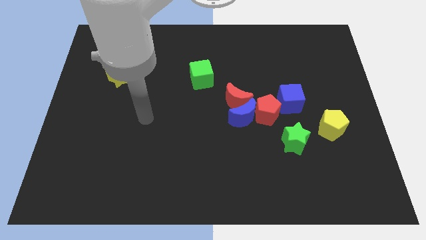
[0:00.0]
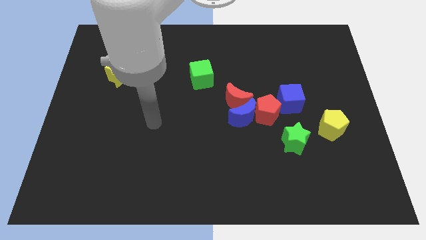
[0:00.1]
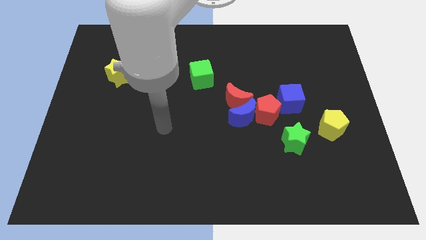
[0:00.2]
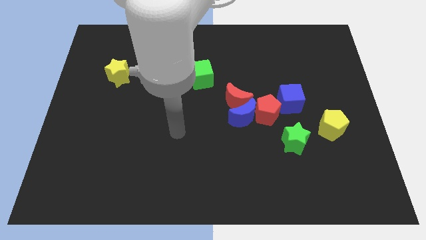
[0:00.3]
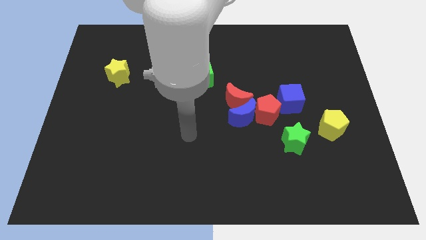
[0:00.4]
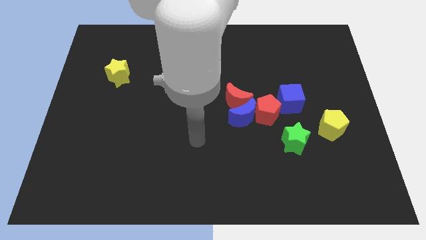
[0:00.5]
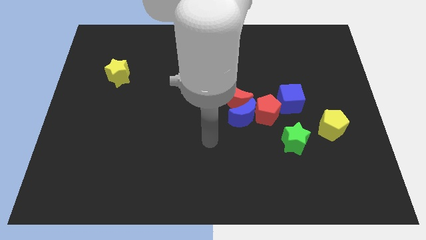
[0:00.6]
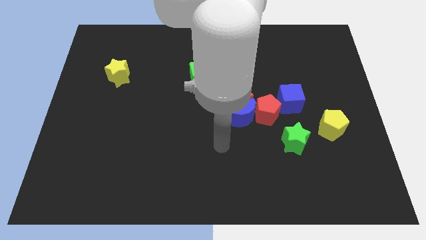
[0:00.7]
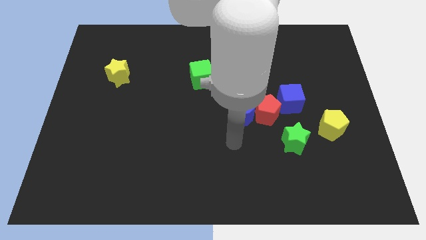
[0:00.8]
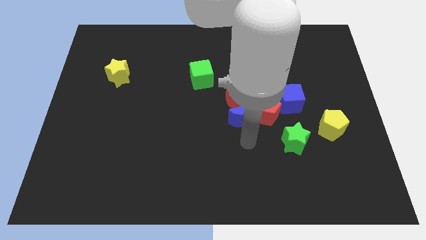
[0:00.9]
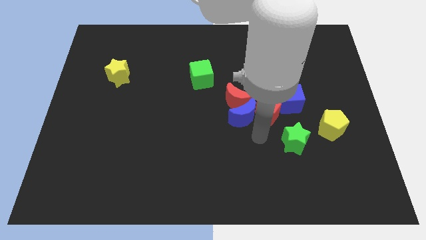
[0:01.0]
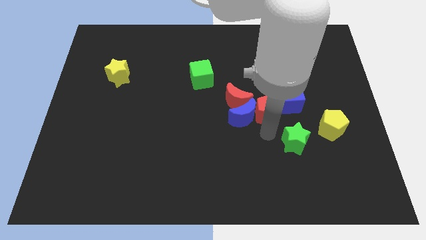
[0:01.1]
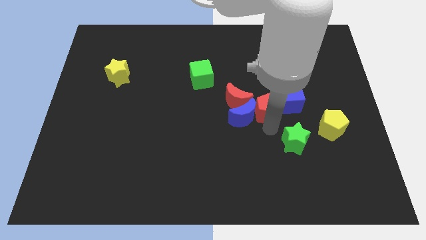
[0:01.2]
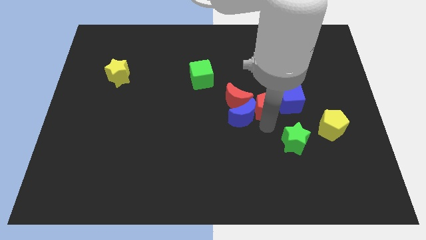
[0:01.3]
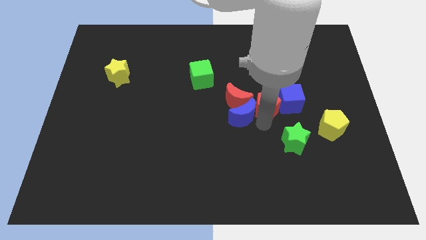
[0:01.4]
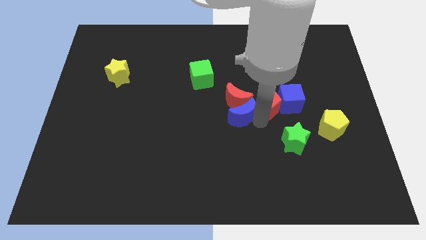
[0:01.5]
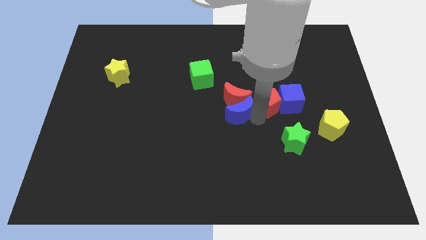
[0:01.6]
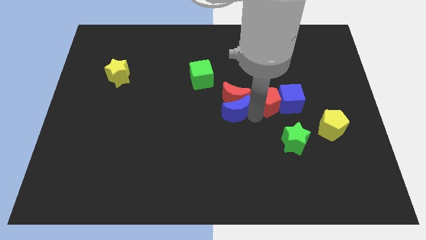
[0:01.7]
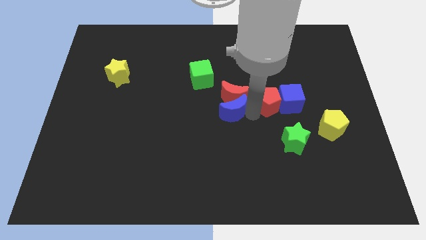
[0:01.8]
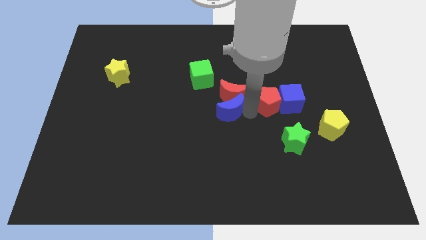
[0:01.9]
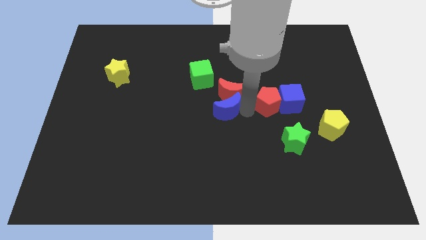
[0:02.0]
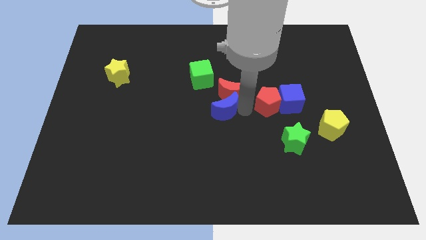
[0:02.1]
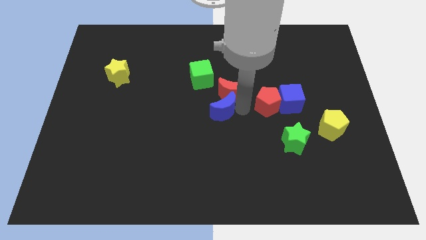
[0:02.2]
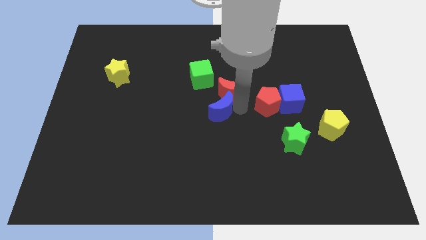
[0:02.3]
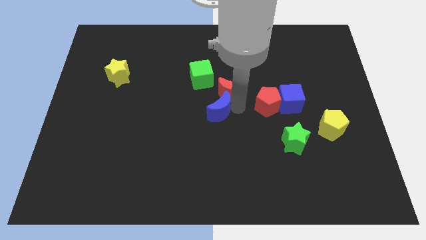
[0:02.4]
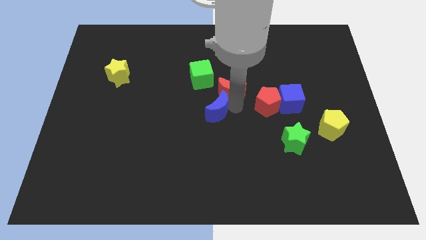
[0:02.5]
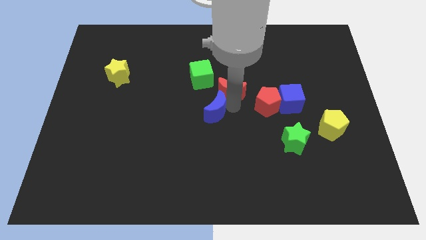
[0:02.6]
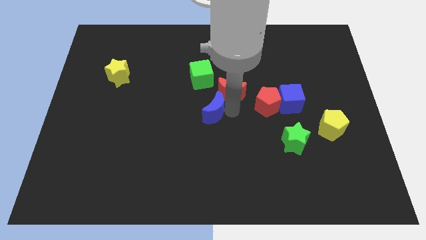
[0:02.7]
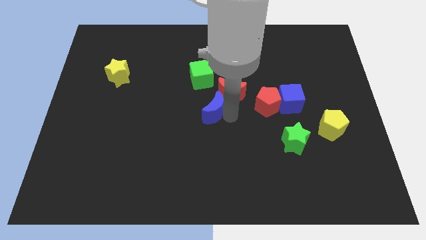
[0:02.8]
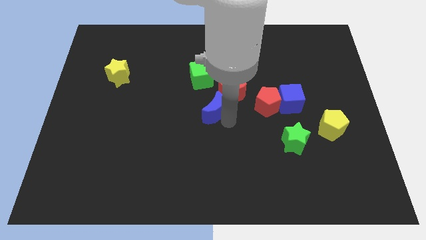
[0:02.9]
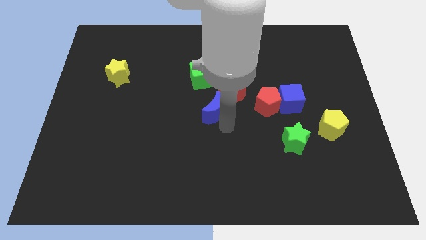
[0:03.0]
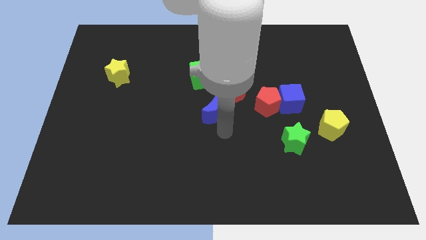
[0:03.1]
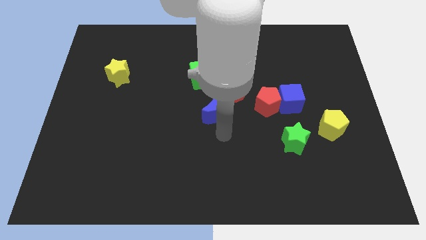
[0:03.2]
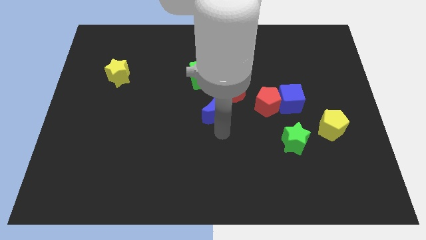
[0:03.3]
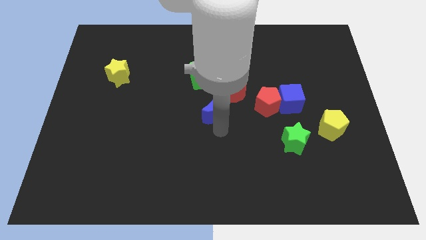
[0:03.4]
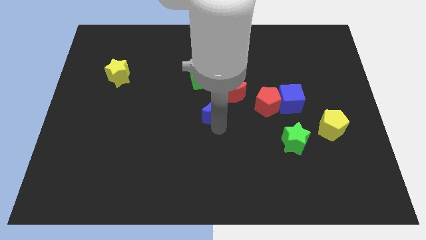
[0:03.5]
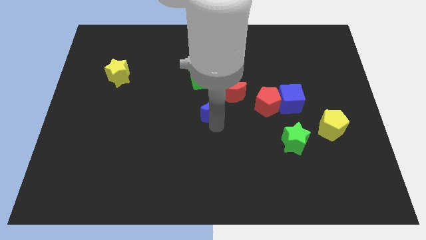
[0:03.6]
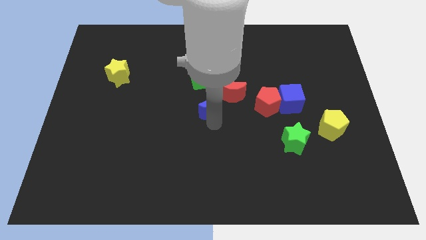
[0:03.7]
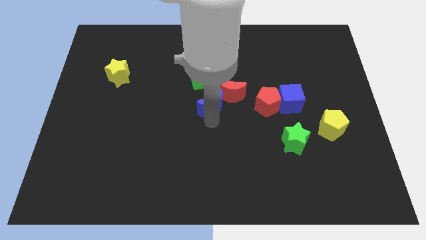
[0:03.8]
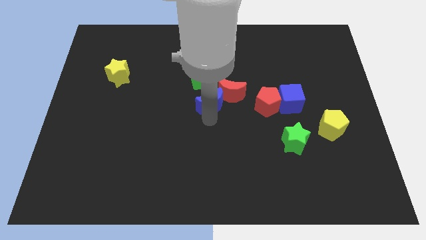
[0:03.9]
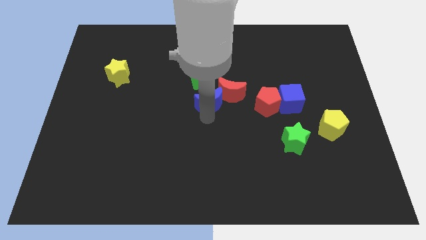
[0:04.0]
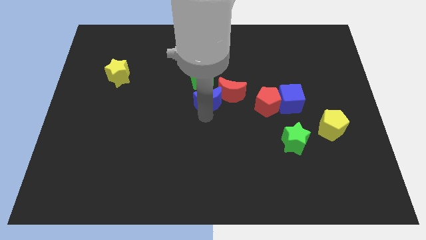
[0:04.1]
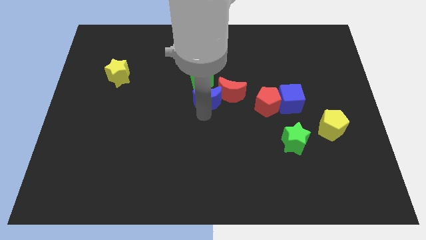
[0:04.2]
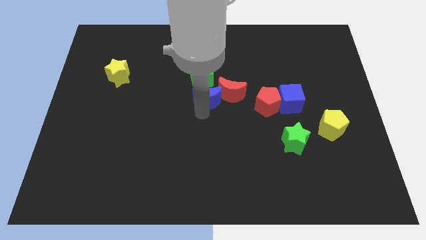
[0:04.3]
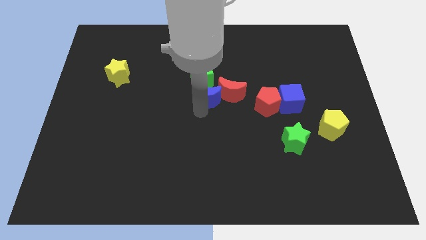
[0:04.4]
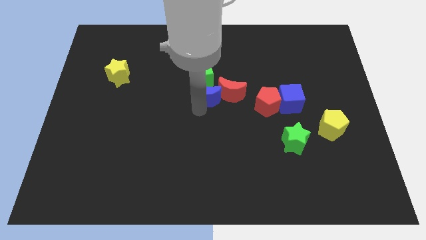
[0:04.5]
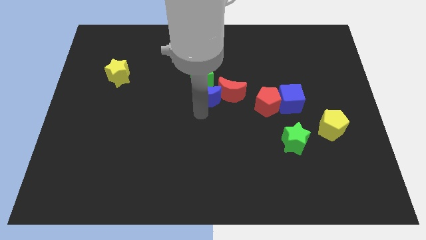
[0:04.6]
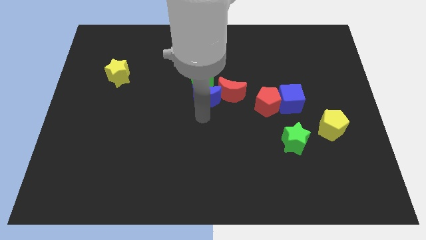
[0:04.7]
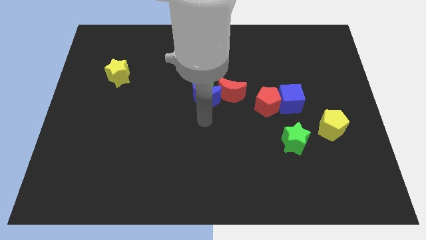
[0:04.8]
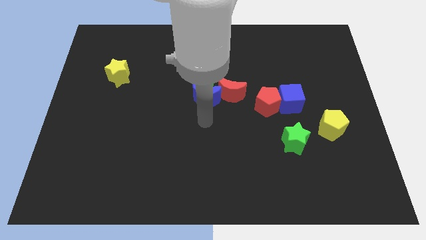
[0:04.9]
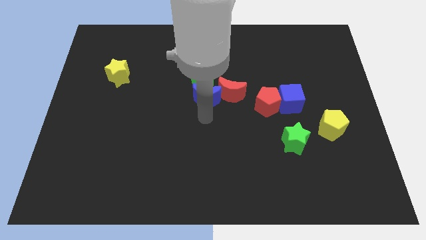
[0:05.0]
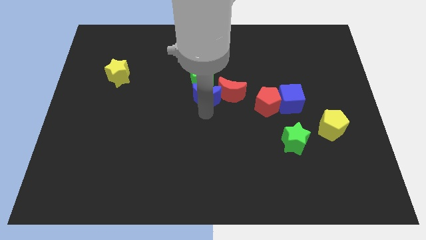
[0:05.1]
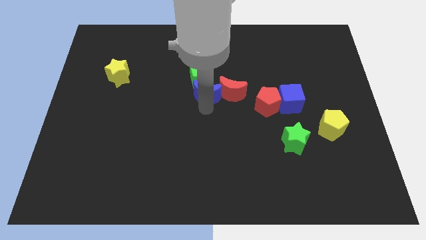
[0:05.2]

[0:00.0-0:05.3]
push the blue moon next to the green cube

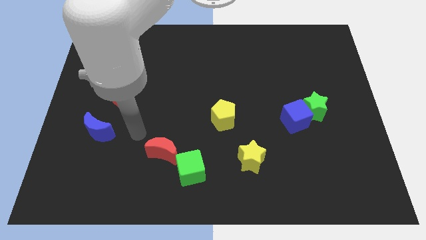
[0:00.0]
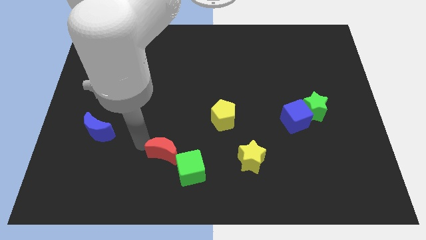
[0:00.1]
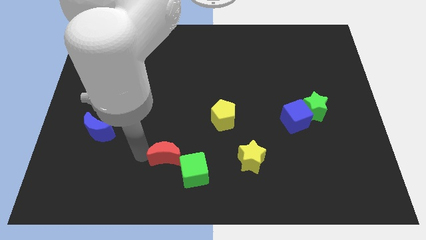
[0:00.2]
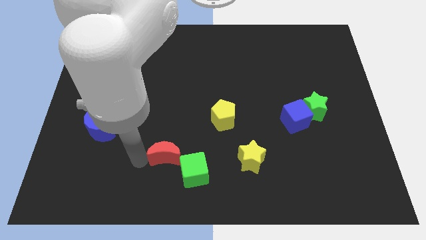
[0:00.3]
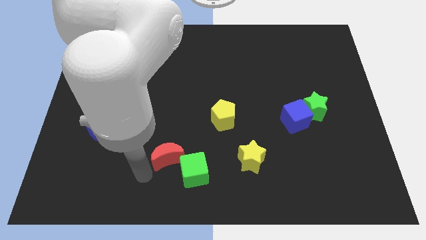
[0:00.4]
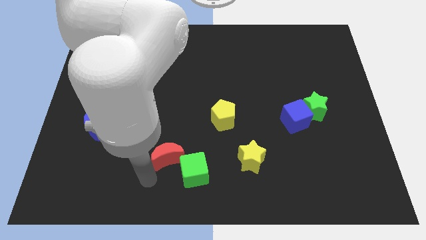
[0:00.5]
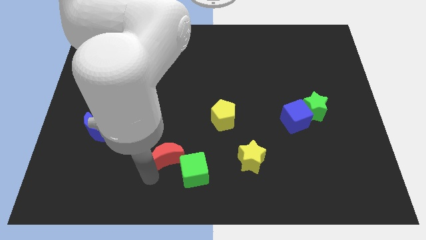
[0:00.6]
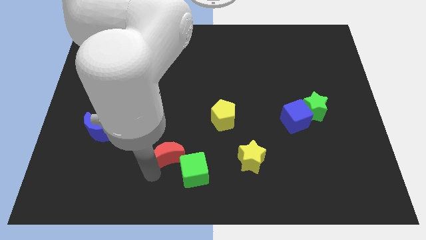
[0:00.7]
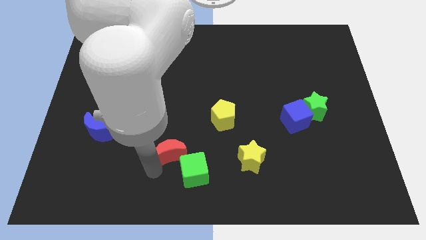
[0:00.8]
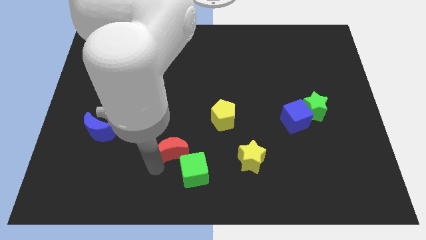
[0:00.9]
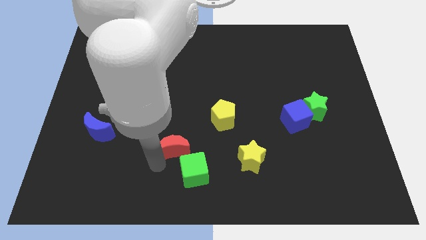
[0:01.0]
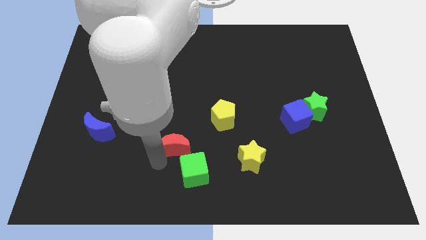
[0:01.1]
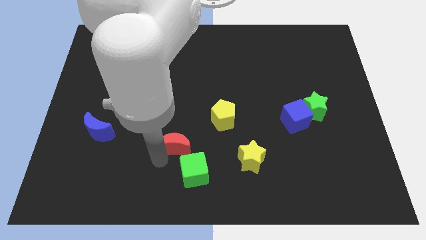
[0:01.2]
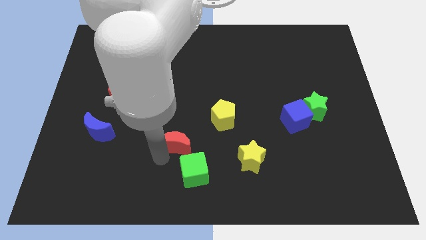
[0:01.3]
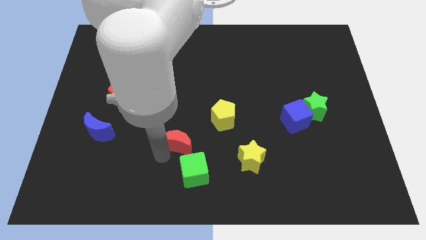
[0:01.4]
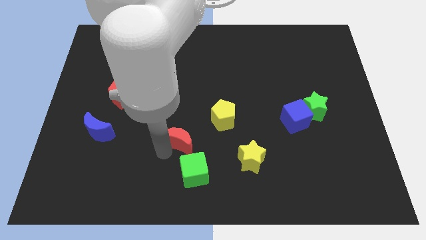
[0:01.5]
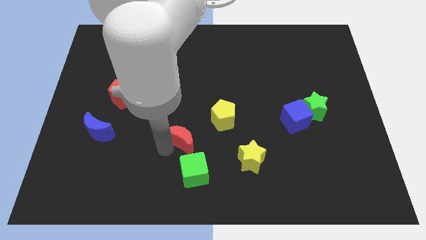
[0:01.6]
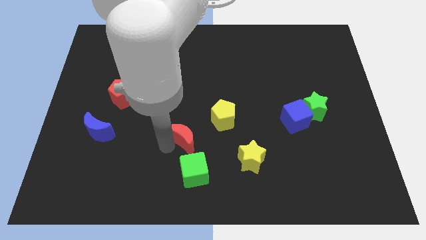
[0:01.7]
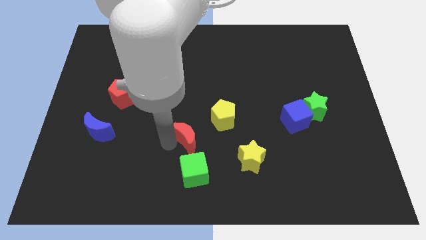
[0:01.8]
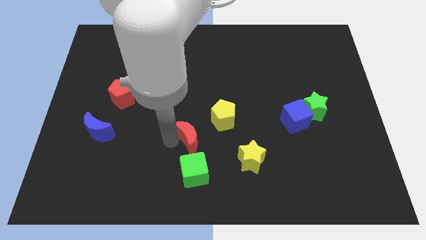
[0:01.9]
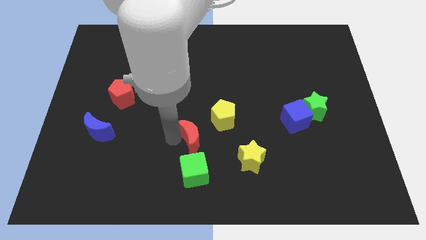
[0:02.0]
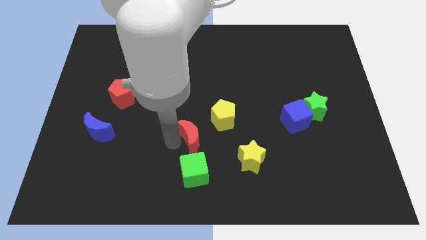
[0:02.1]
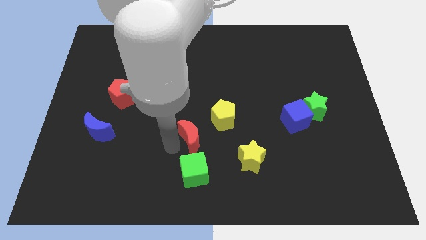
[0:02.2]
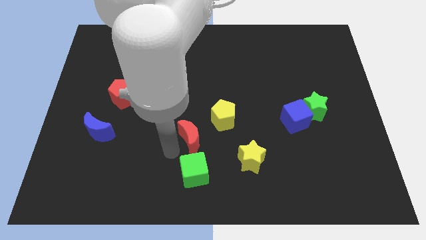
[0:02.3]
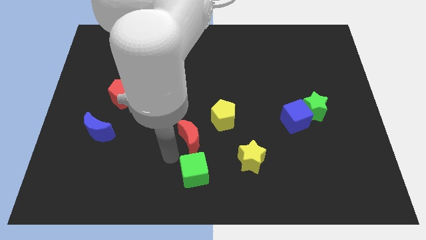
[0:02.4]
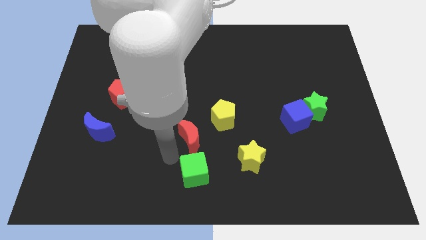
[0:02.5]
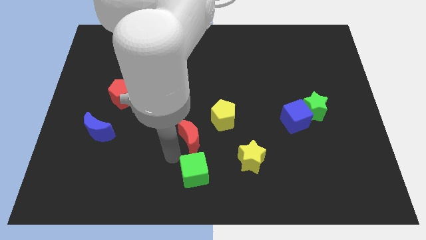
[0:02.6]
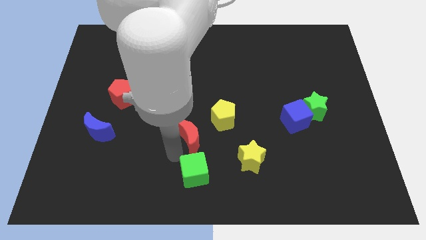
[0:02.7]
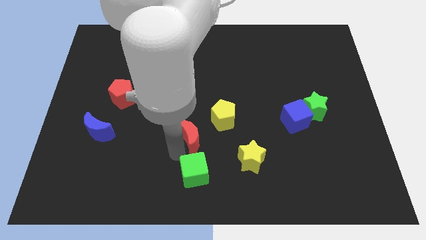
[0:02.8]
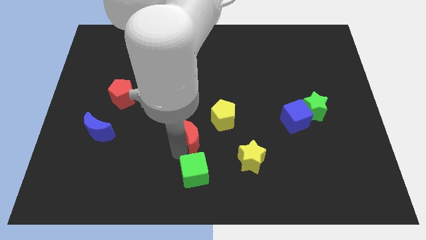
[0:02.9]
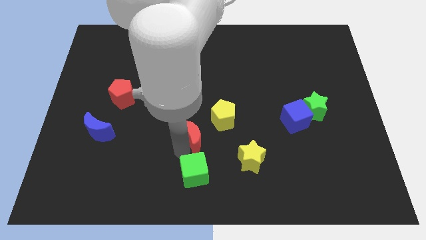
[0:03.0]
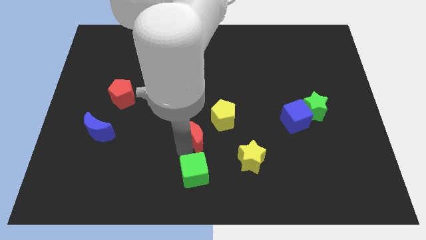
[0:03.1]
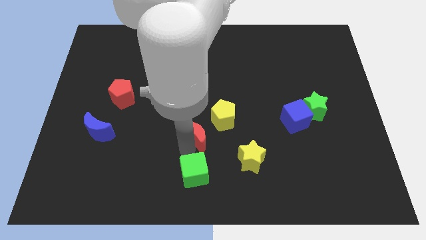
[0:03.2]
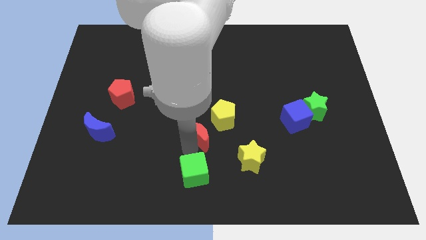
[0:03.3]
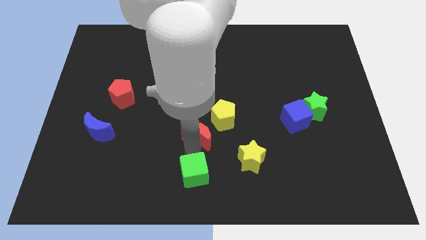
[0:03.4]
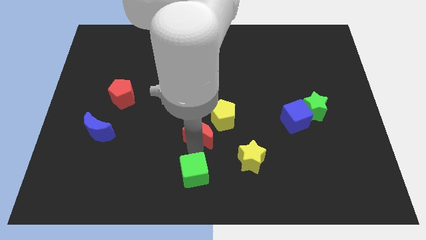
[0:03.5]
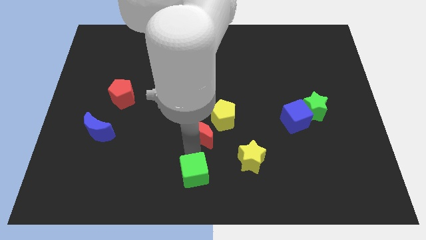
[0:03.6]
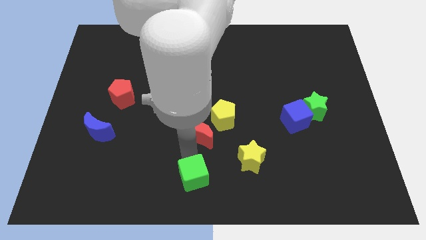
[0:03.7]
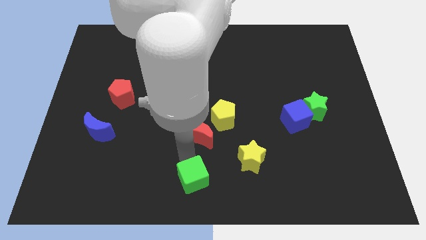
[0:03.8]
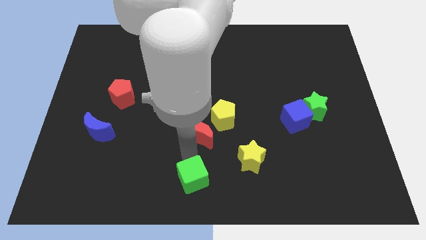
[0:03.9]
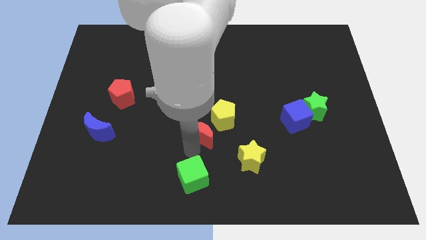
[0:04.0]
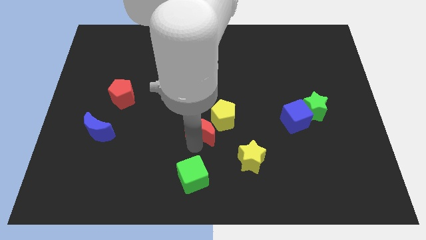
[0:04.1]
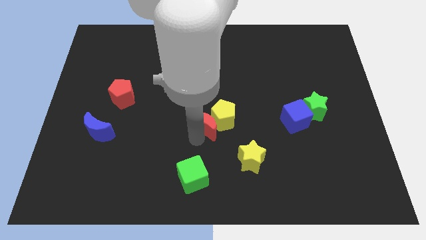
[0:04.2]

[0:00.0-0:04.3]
put the red moon to the yellow pentagon
